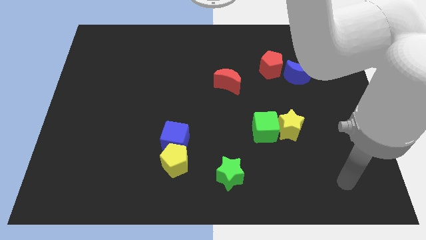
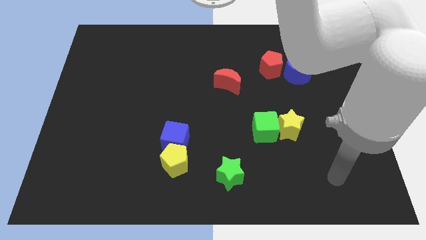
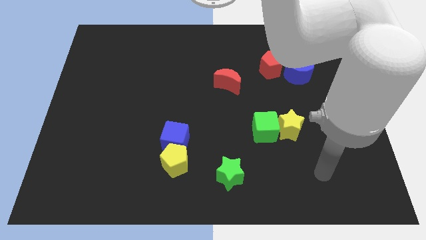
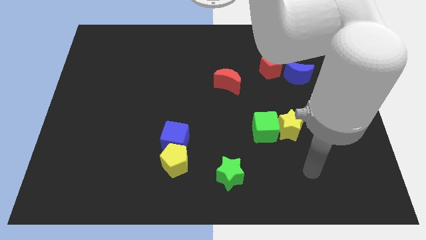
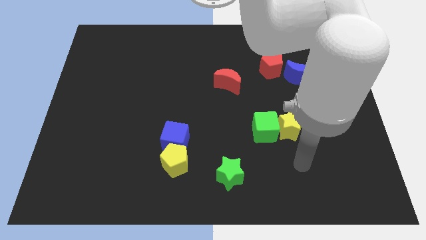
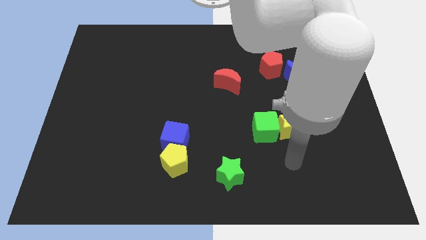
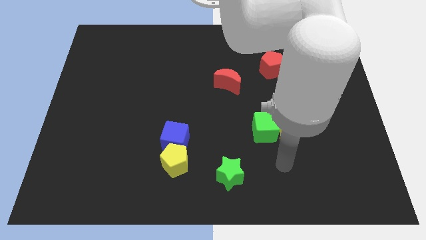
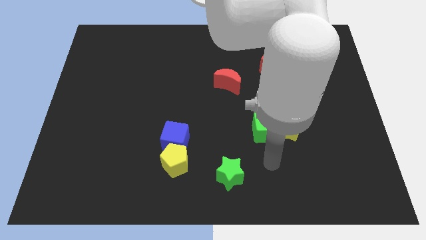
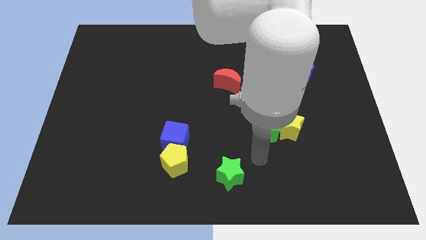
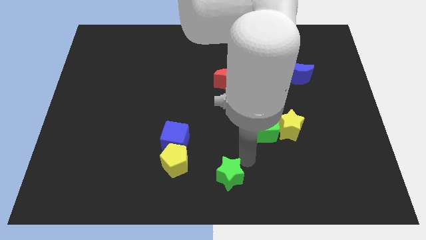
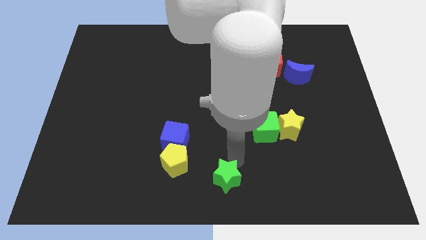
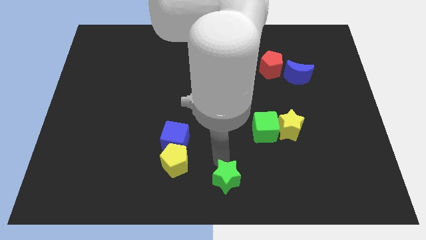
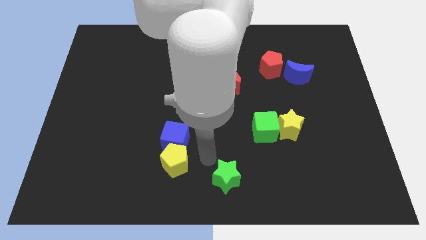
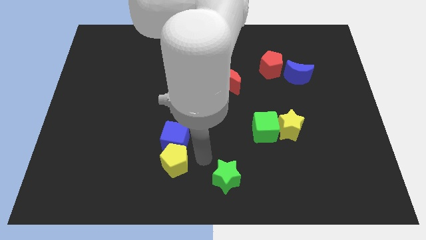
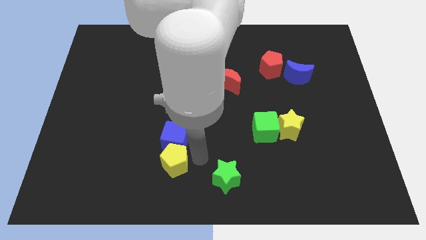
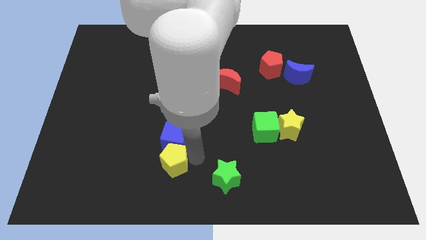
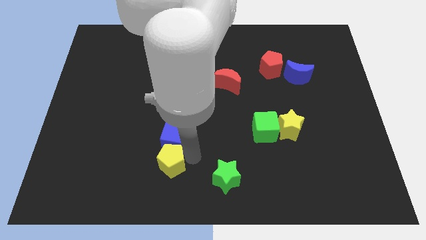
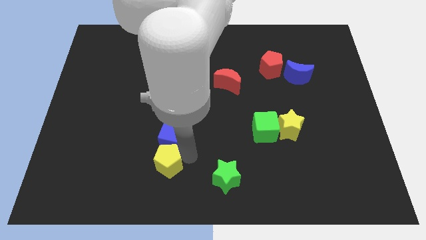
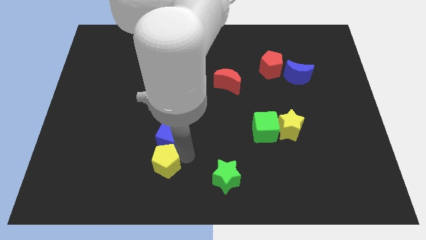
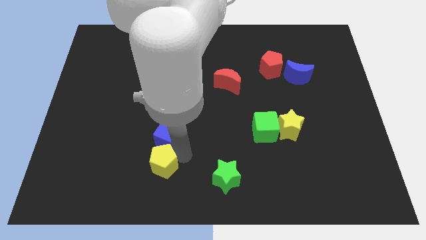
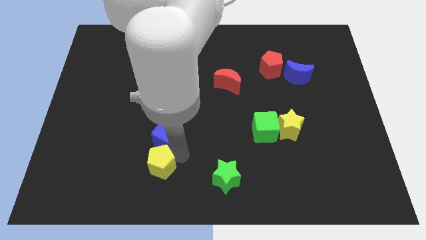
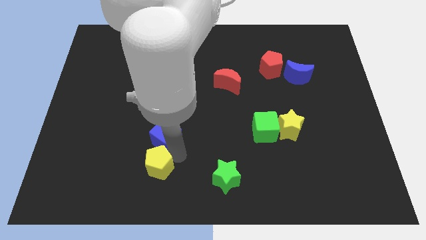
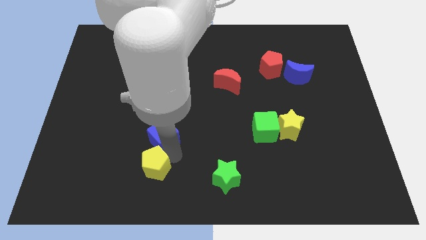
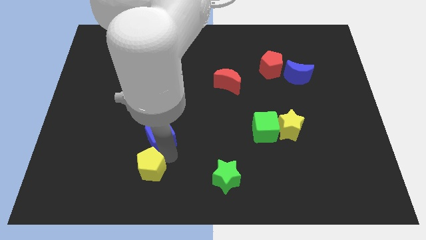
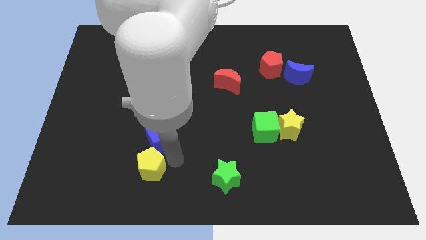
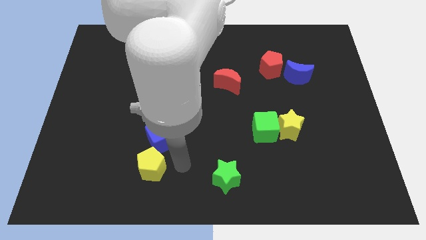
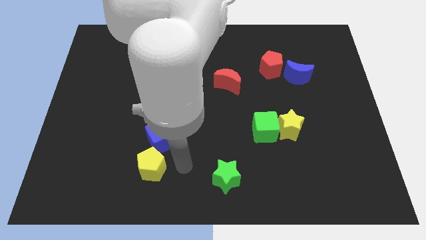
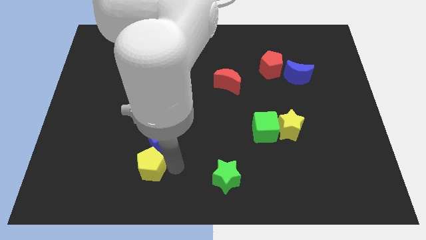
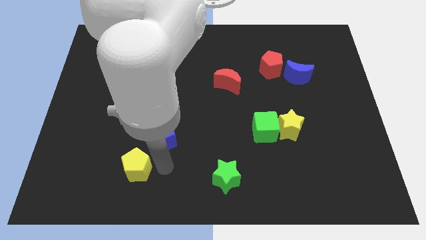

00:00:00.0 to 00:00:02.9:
slide the yellow pentagon a little bit left

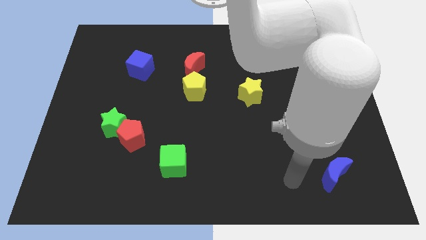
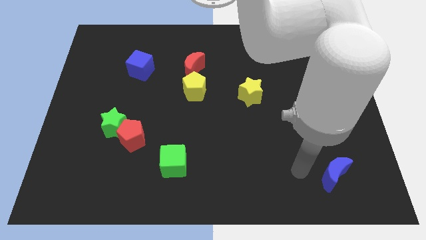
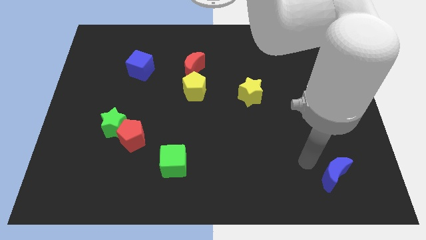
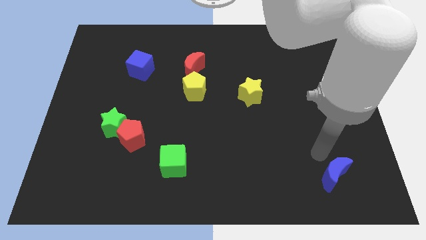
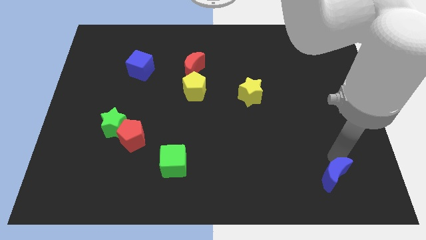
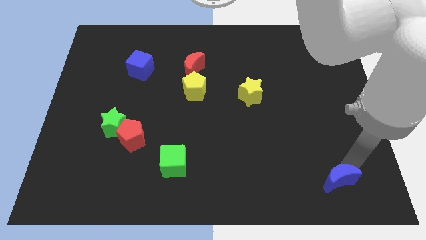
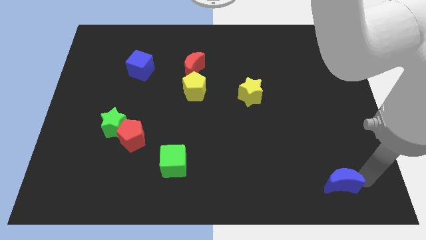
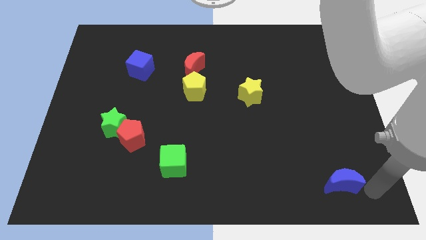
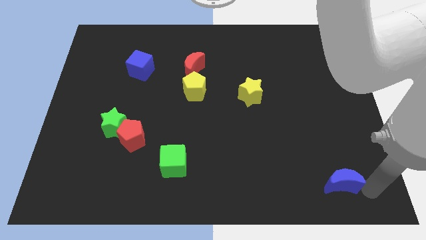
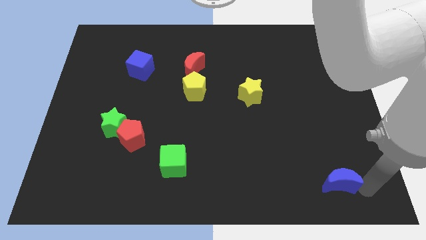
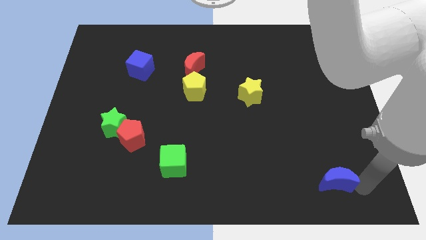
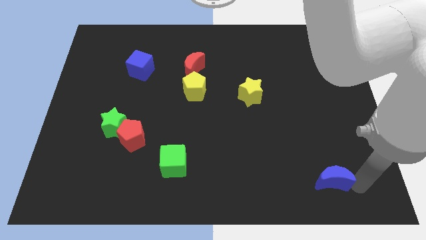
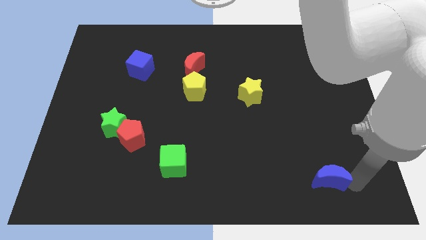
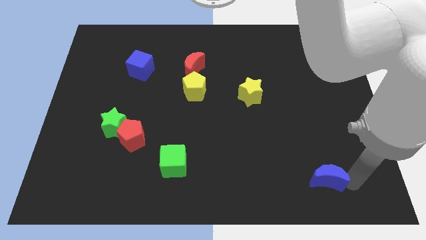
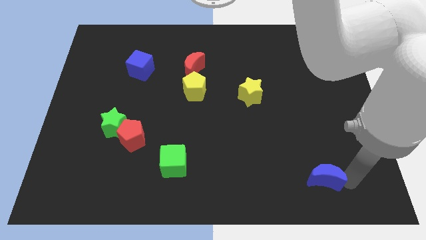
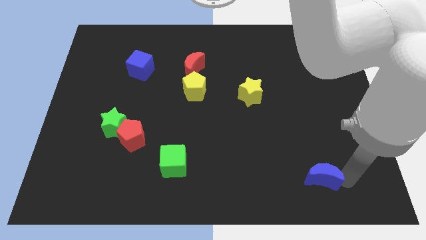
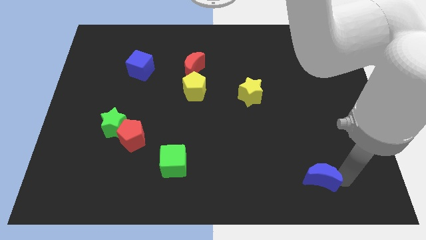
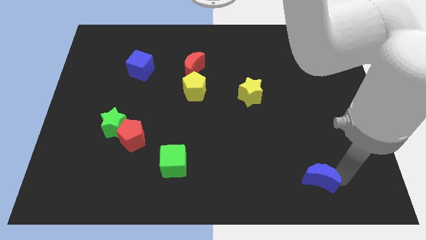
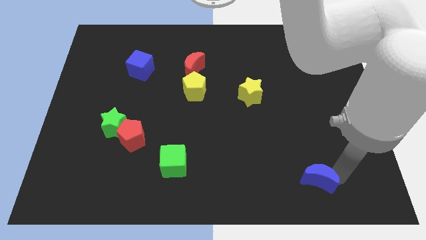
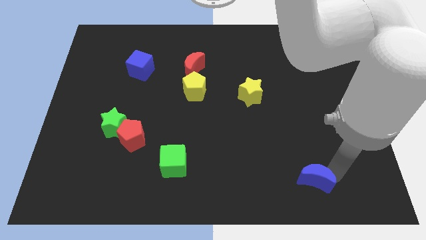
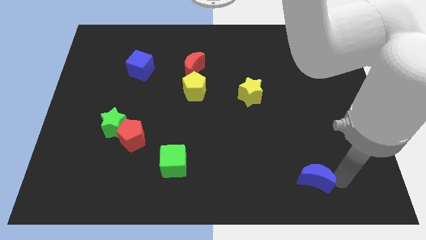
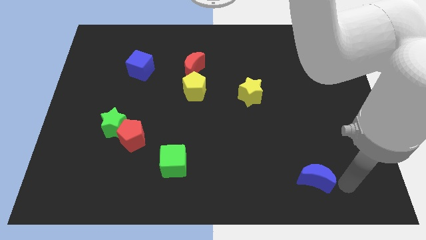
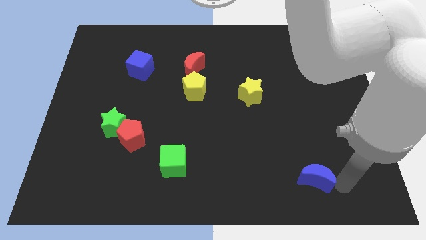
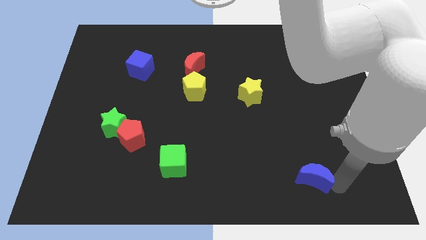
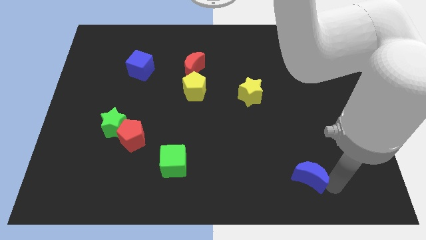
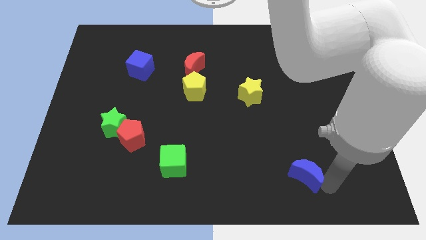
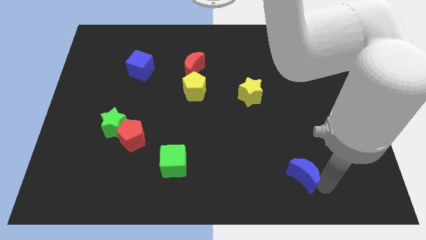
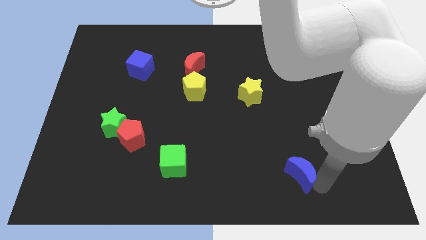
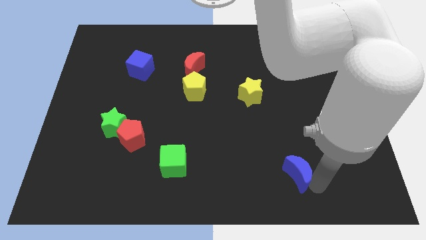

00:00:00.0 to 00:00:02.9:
slightly push the blue moon left

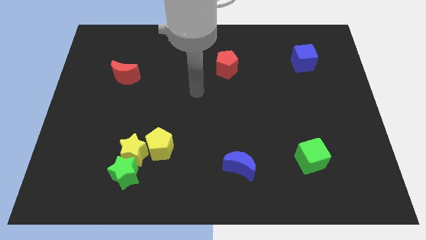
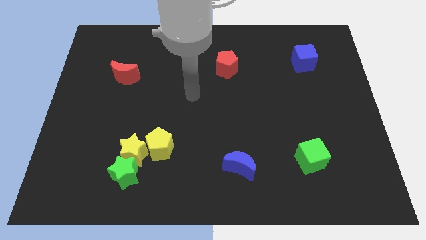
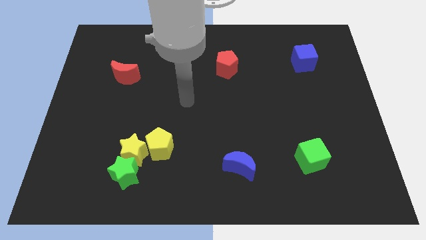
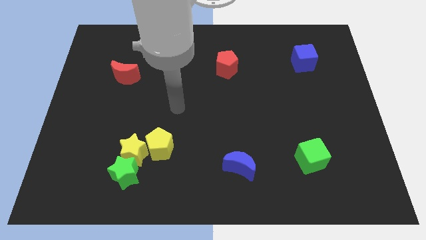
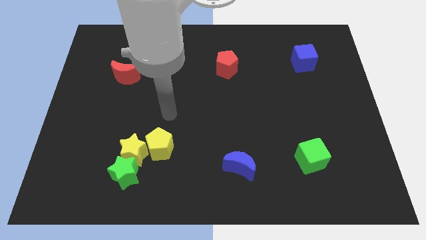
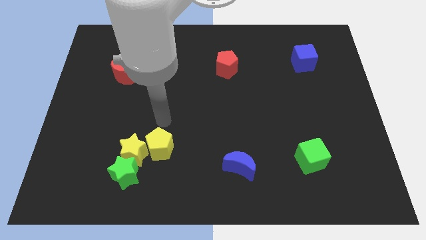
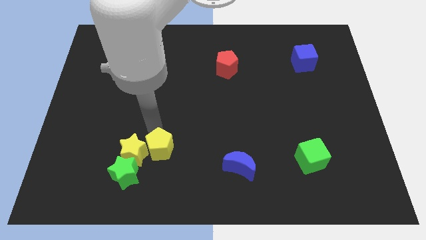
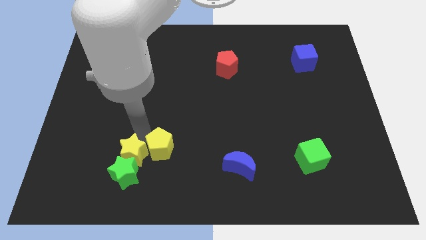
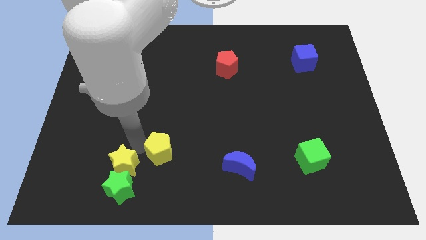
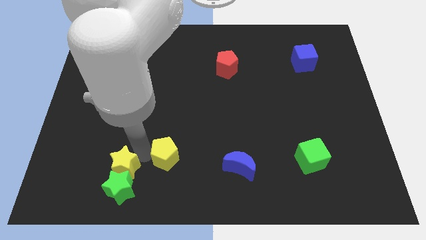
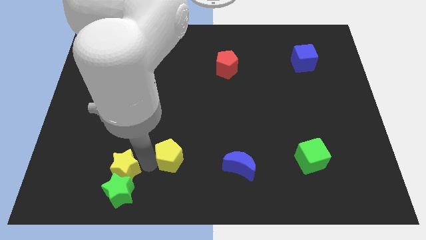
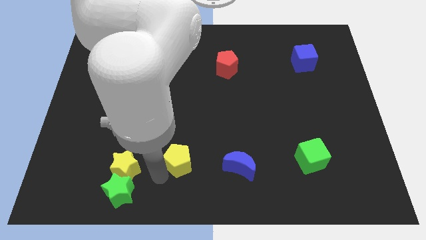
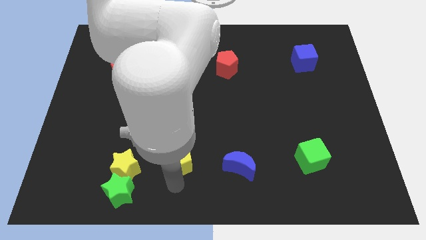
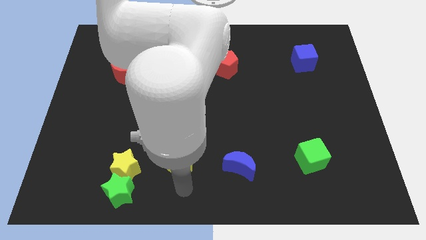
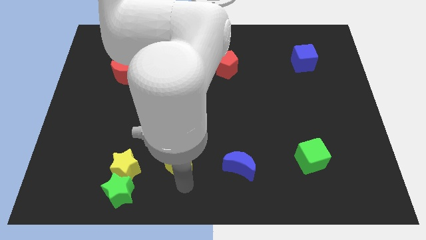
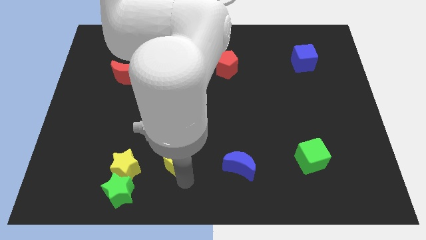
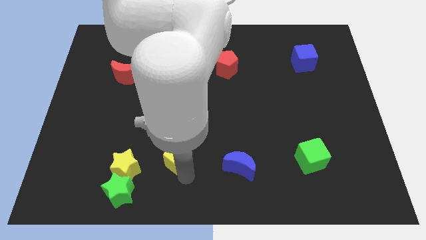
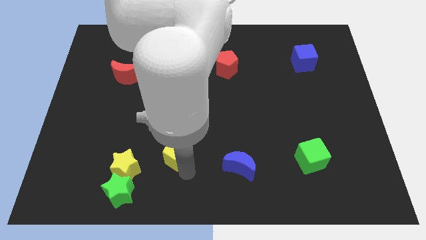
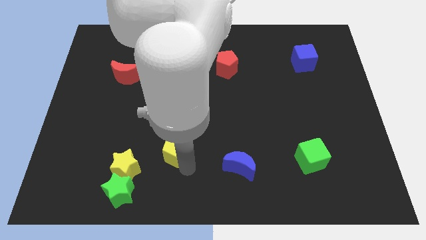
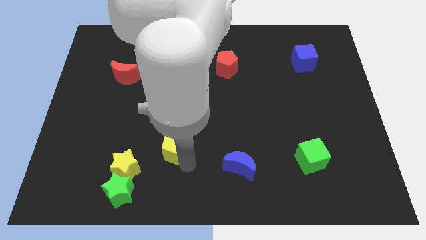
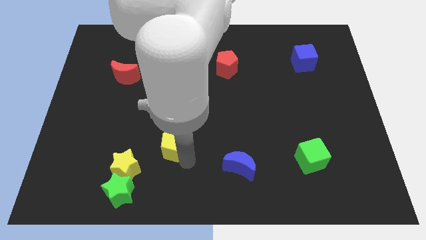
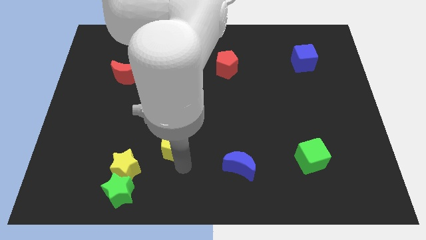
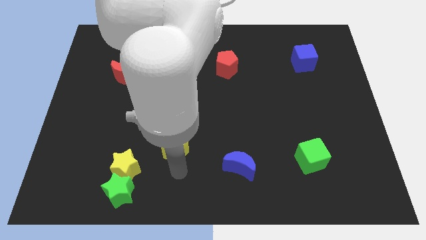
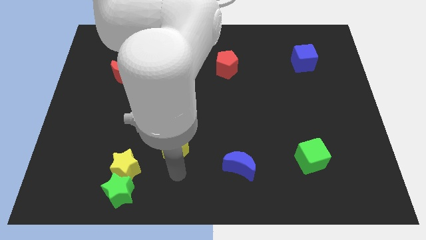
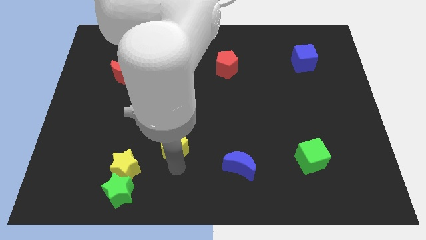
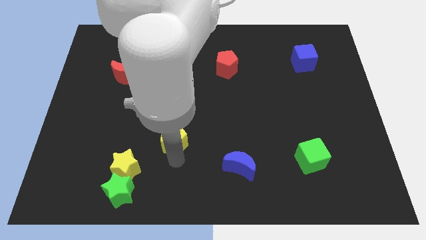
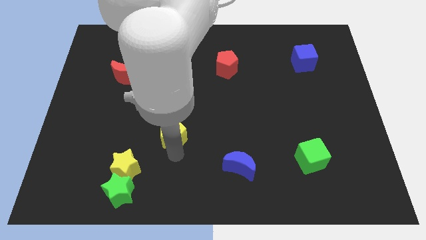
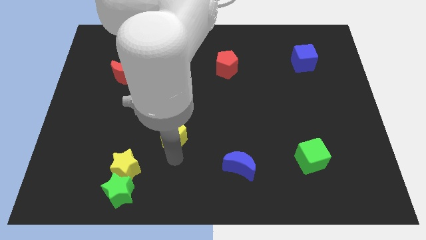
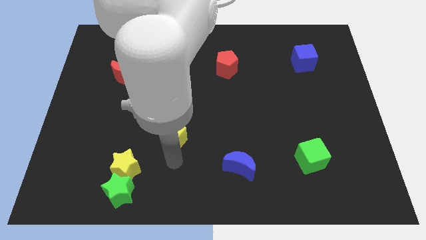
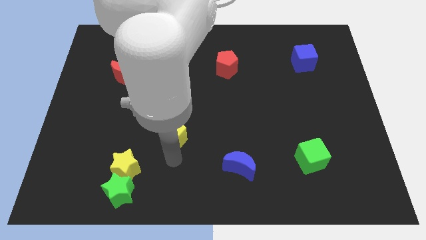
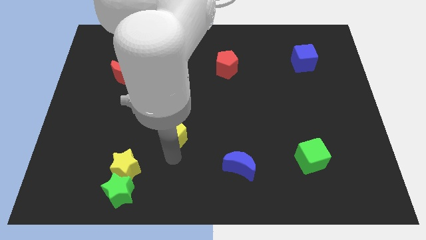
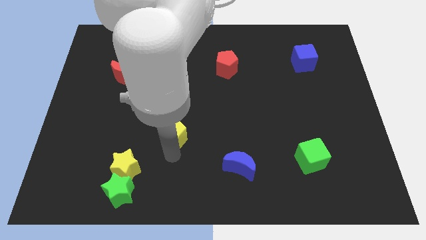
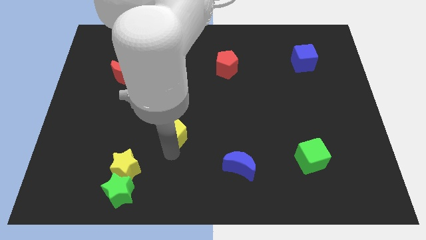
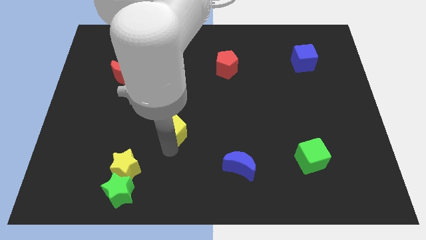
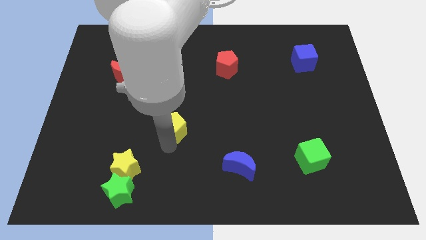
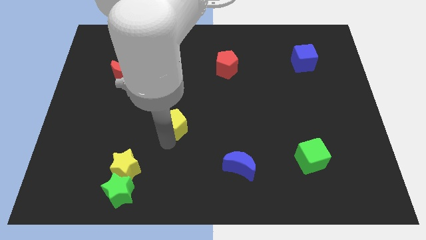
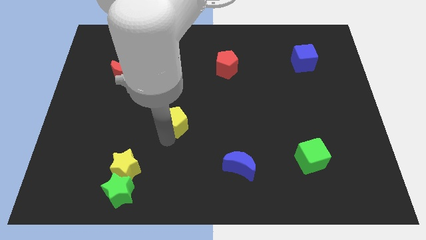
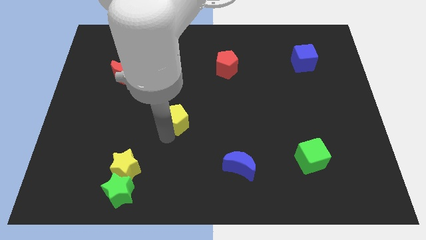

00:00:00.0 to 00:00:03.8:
move the yellow pentagon a little upwards
